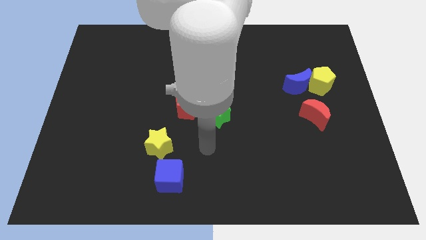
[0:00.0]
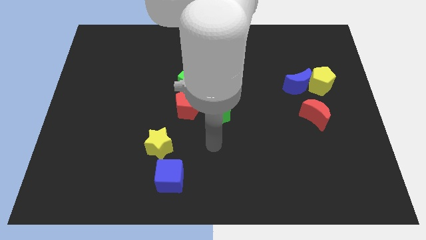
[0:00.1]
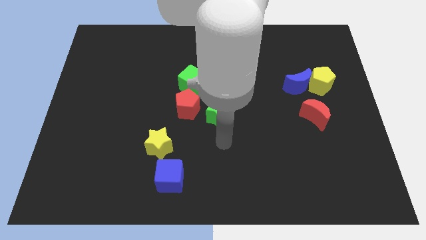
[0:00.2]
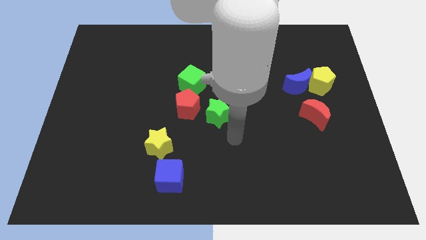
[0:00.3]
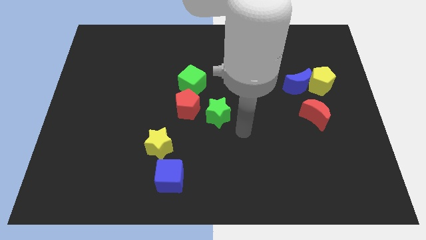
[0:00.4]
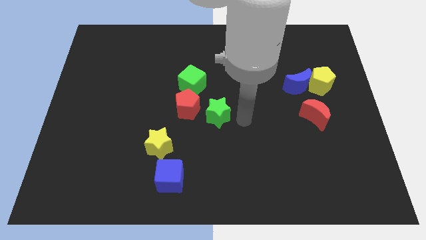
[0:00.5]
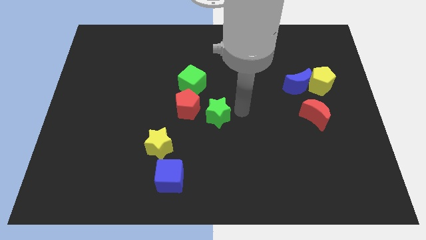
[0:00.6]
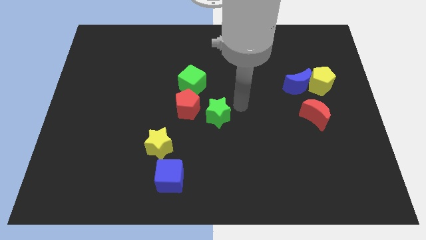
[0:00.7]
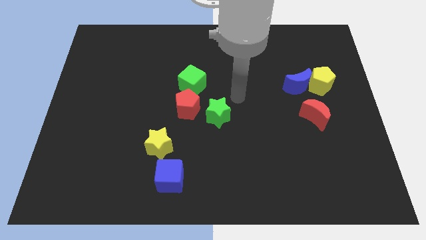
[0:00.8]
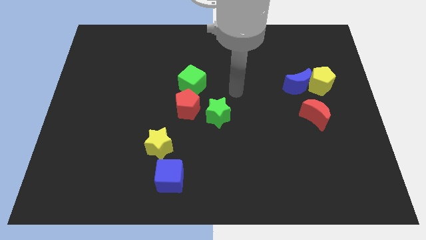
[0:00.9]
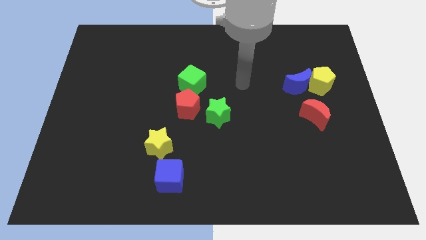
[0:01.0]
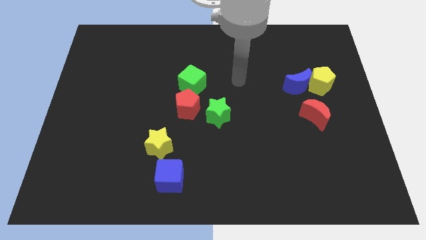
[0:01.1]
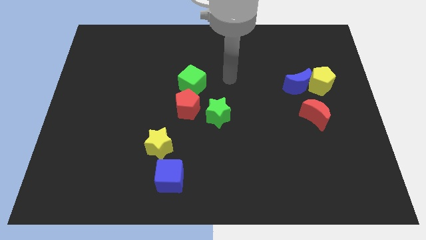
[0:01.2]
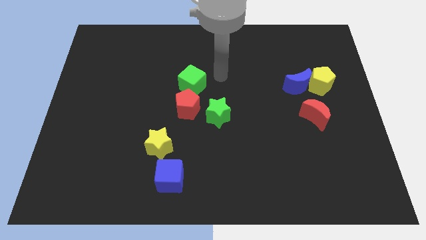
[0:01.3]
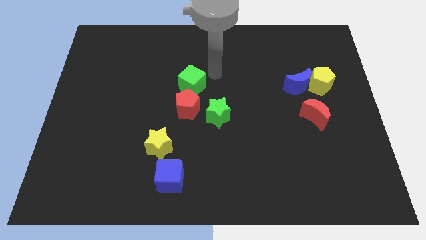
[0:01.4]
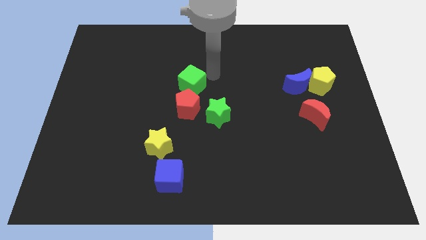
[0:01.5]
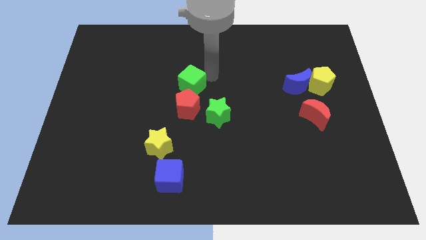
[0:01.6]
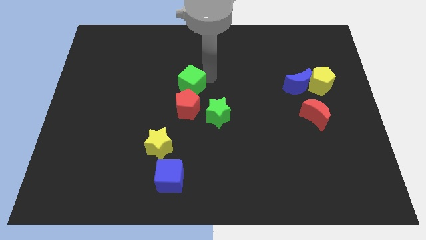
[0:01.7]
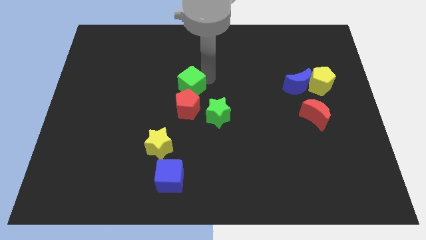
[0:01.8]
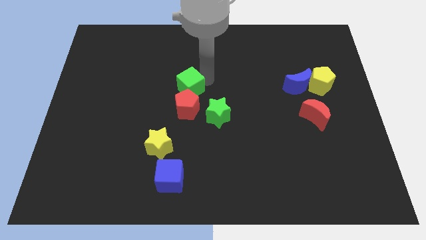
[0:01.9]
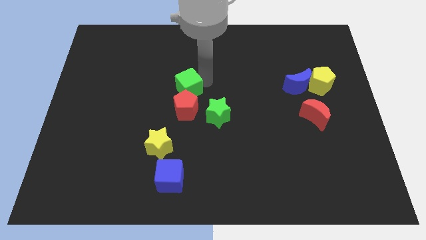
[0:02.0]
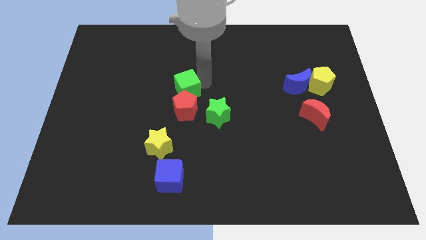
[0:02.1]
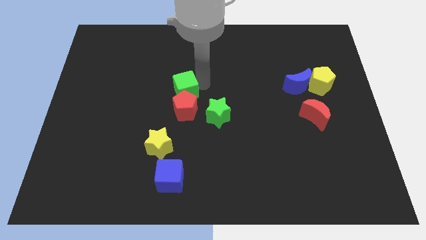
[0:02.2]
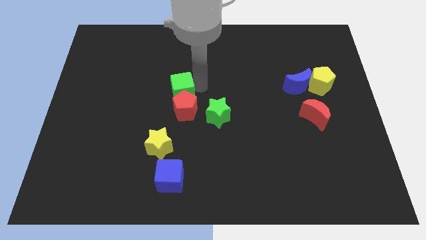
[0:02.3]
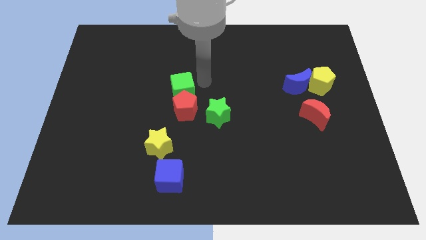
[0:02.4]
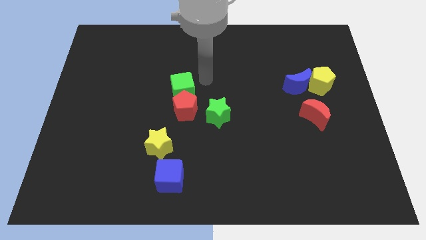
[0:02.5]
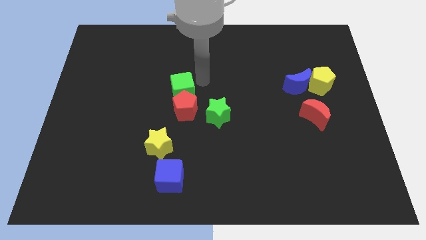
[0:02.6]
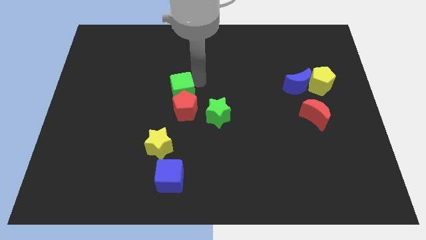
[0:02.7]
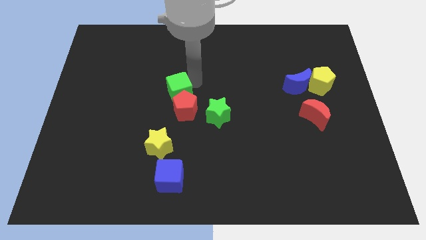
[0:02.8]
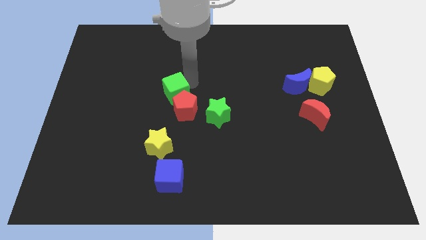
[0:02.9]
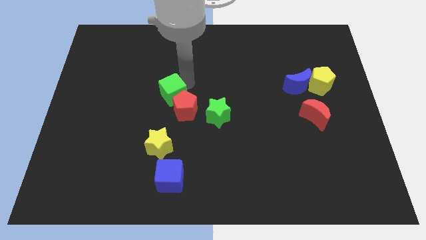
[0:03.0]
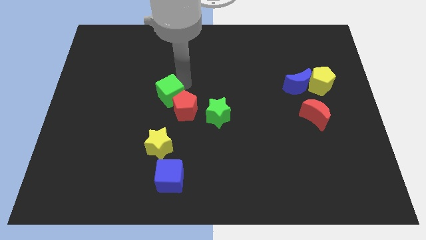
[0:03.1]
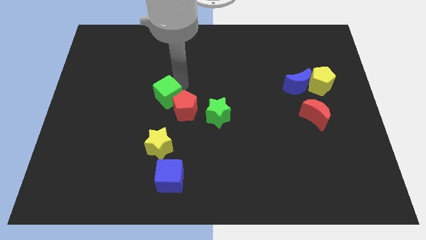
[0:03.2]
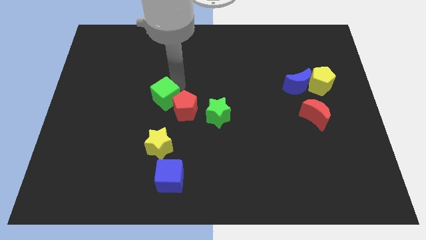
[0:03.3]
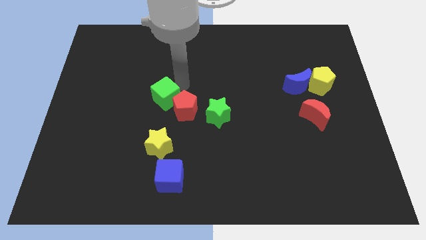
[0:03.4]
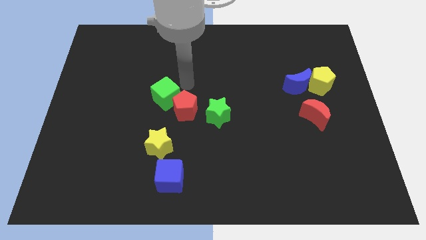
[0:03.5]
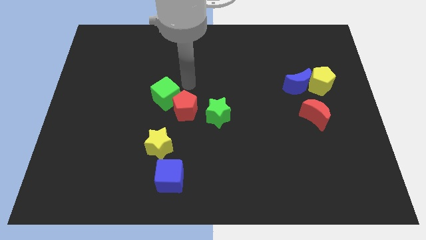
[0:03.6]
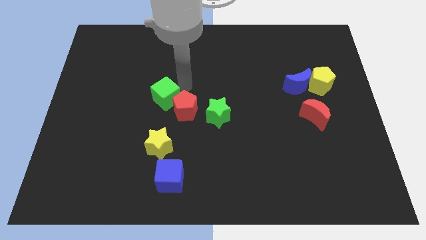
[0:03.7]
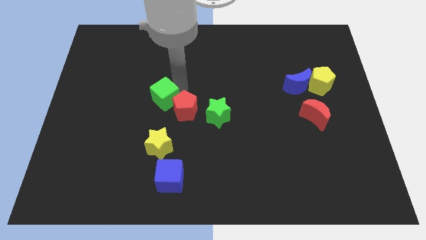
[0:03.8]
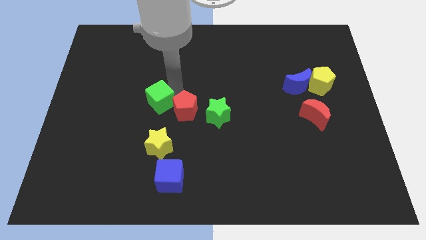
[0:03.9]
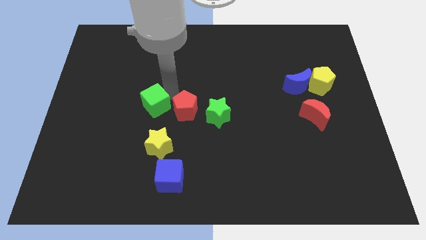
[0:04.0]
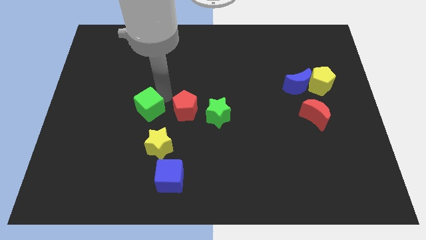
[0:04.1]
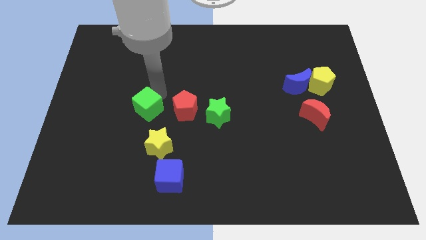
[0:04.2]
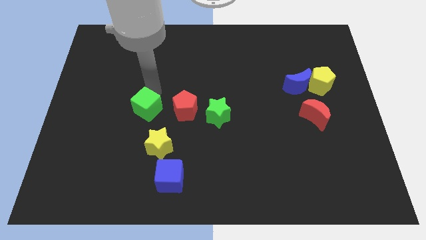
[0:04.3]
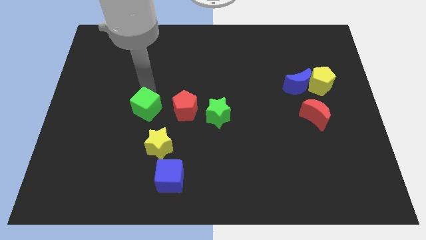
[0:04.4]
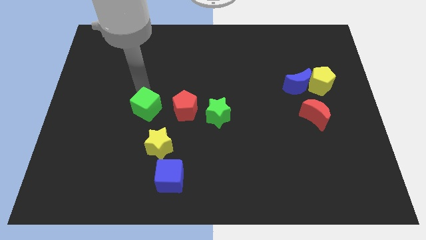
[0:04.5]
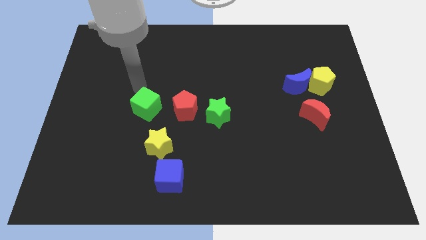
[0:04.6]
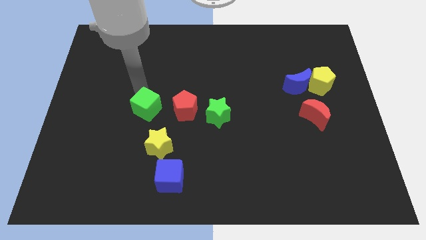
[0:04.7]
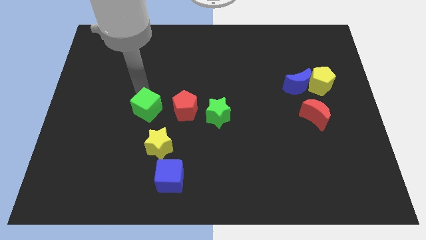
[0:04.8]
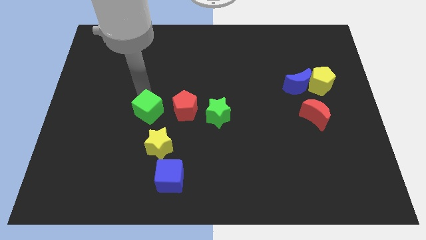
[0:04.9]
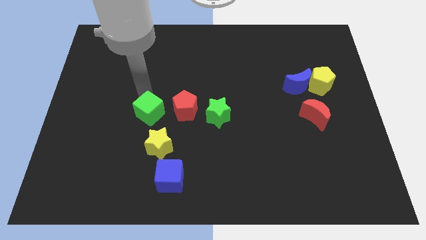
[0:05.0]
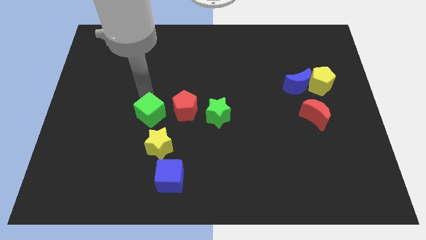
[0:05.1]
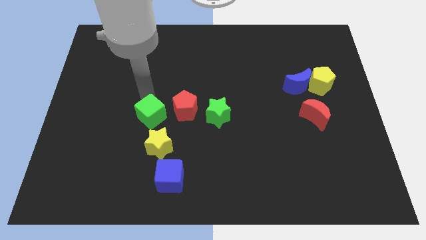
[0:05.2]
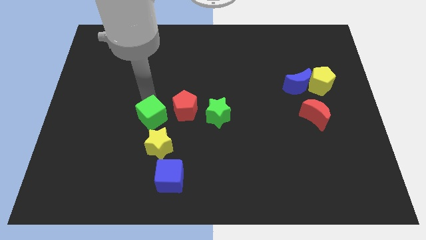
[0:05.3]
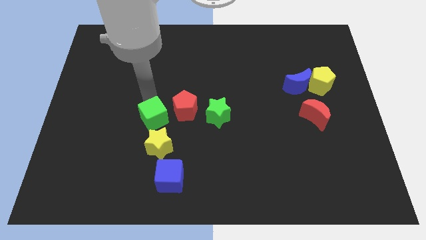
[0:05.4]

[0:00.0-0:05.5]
slightly move the green cube downwards

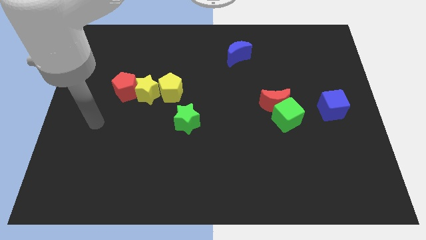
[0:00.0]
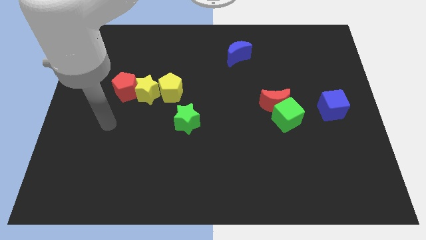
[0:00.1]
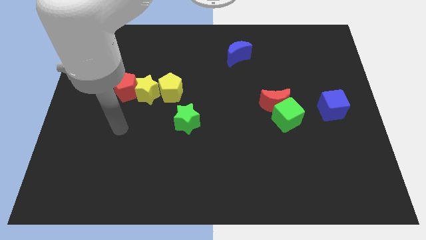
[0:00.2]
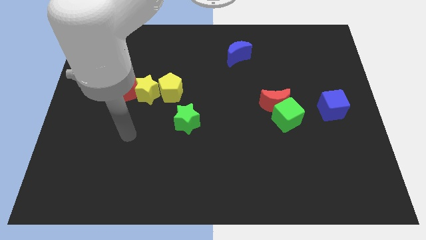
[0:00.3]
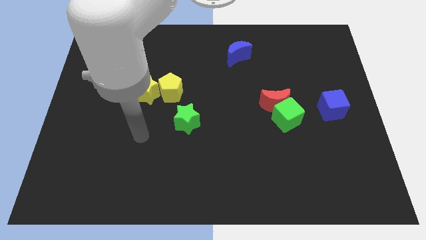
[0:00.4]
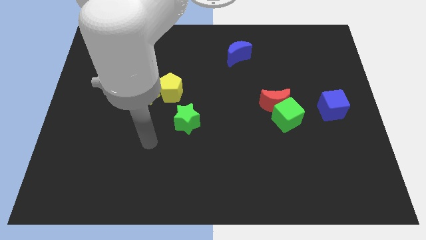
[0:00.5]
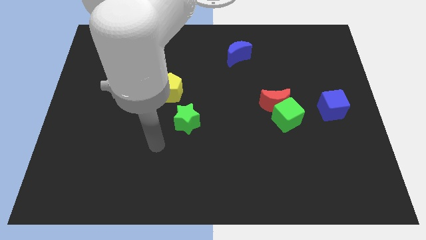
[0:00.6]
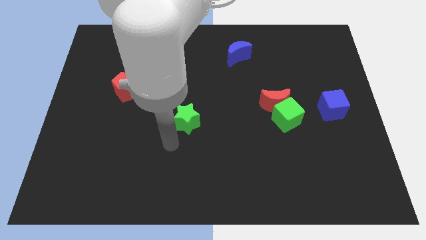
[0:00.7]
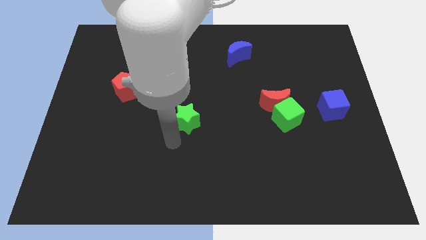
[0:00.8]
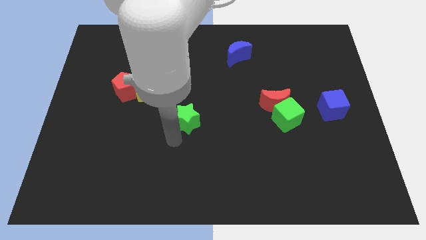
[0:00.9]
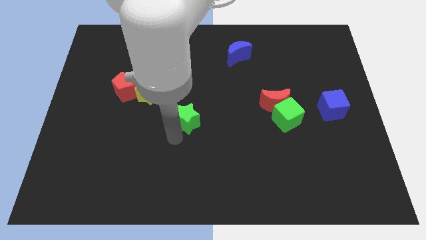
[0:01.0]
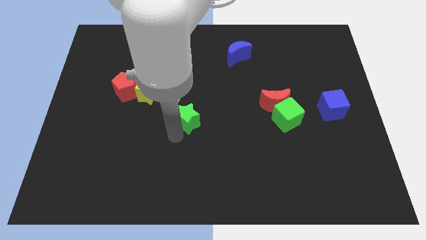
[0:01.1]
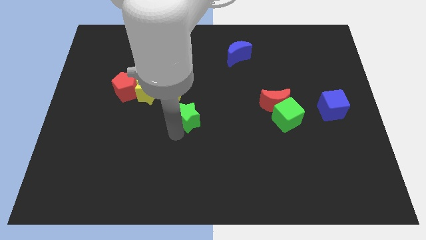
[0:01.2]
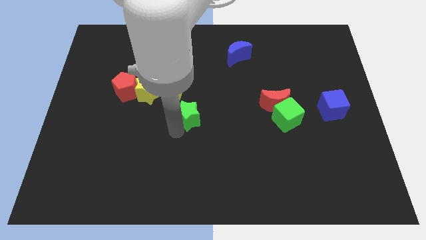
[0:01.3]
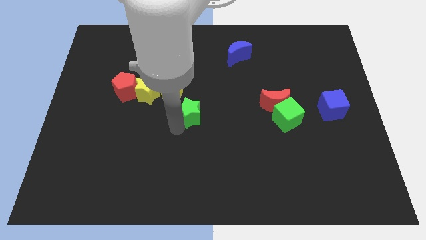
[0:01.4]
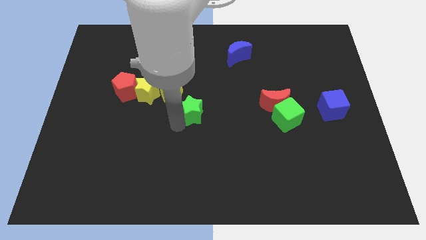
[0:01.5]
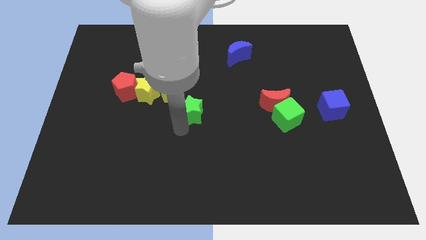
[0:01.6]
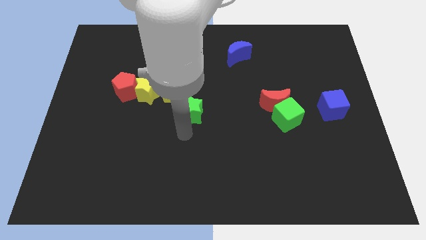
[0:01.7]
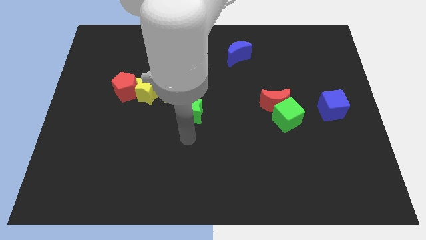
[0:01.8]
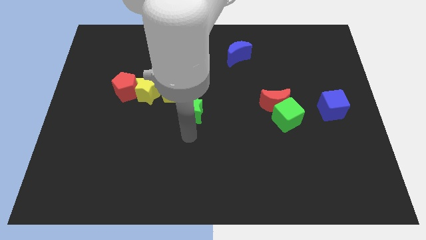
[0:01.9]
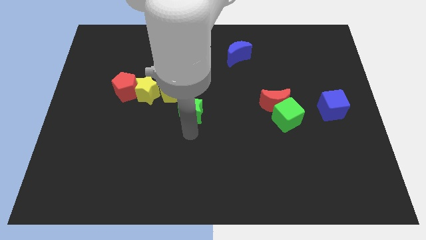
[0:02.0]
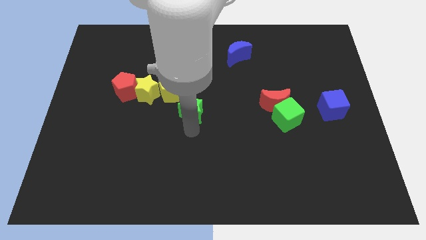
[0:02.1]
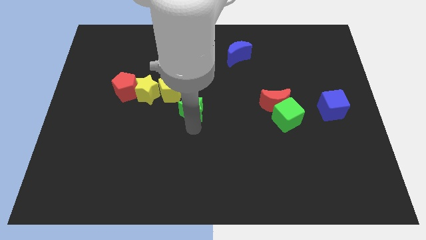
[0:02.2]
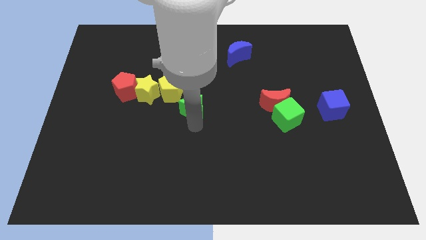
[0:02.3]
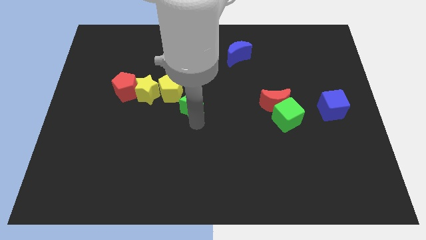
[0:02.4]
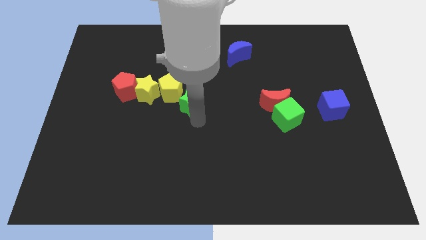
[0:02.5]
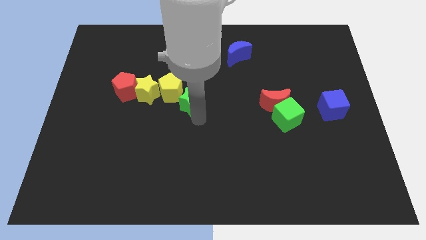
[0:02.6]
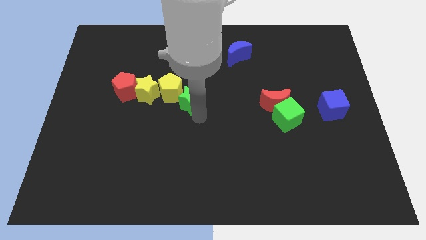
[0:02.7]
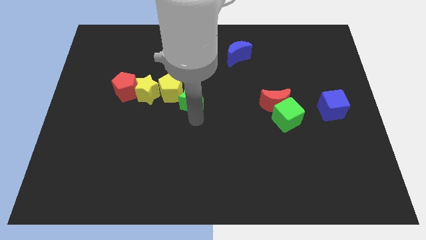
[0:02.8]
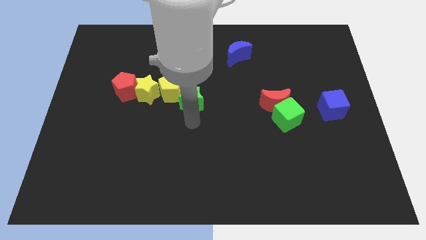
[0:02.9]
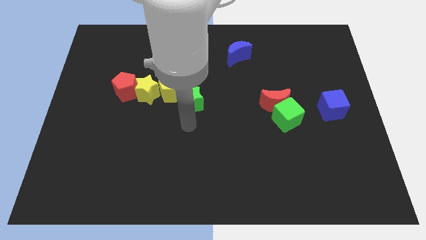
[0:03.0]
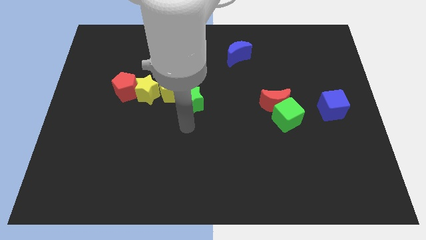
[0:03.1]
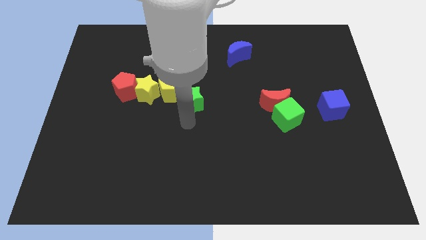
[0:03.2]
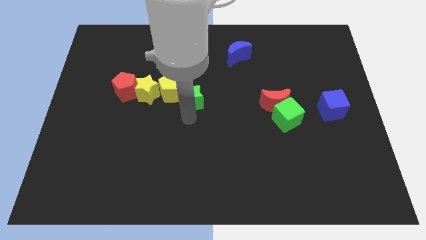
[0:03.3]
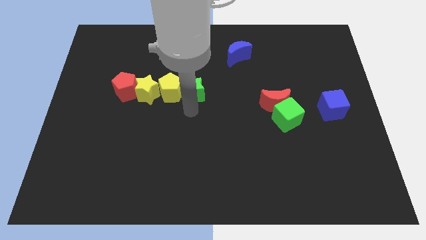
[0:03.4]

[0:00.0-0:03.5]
move the green star upwards somewhat
